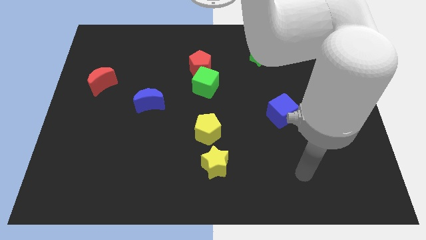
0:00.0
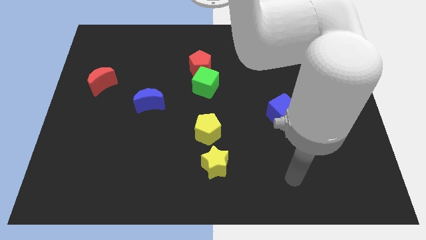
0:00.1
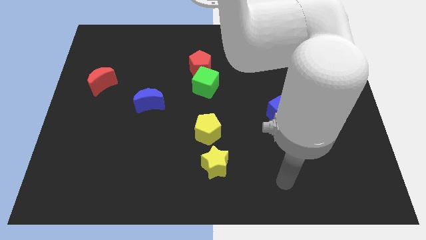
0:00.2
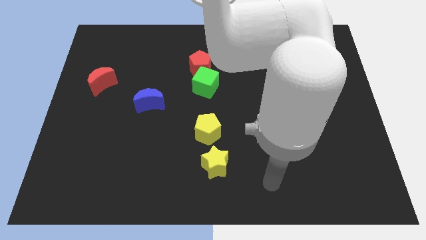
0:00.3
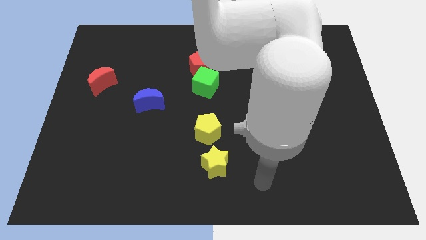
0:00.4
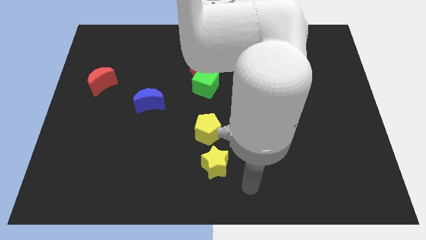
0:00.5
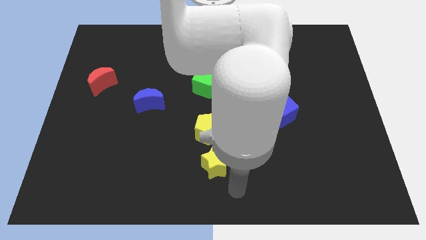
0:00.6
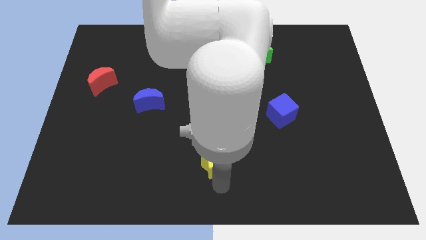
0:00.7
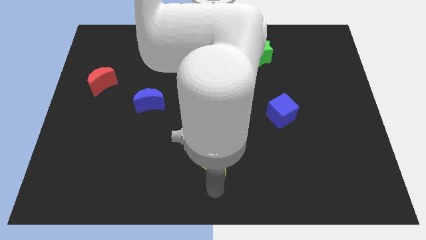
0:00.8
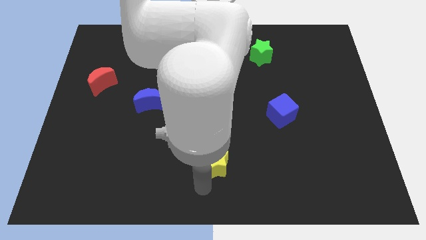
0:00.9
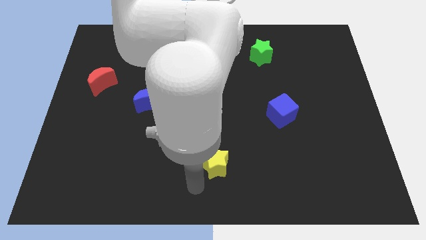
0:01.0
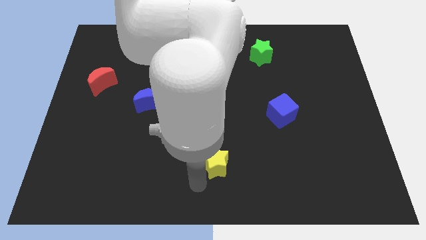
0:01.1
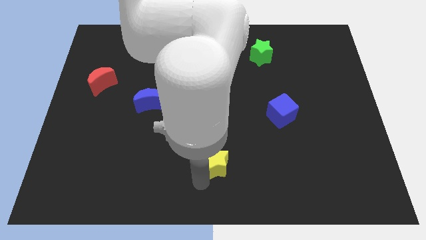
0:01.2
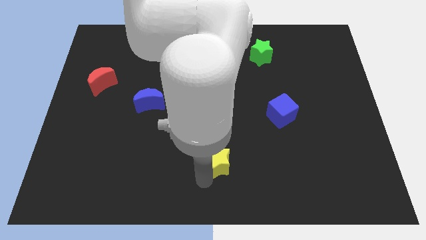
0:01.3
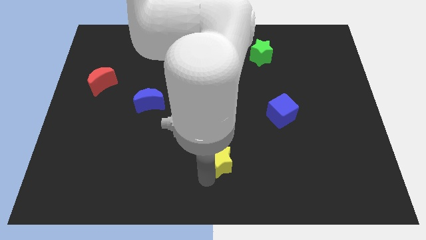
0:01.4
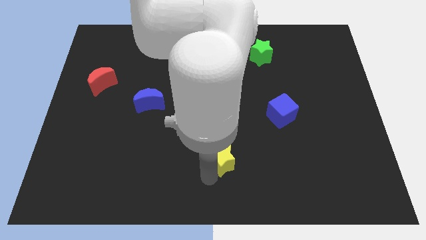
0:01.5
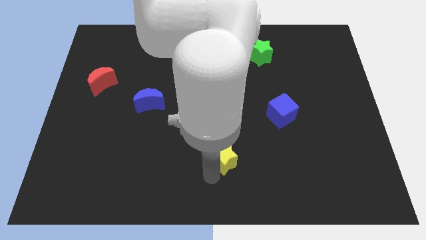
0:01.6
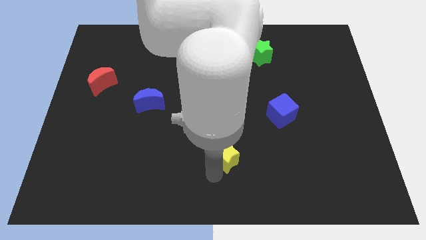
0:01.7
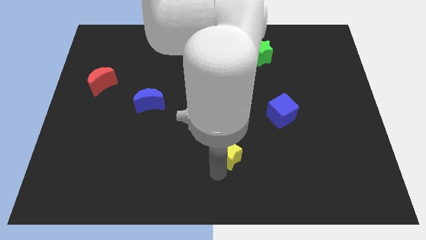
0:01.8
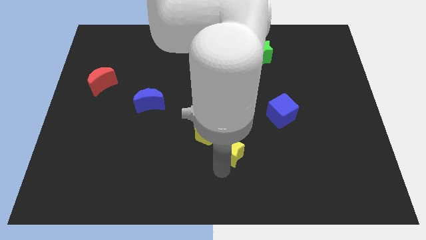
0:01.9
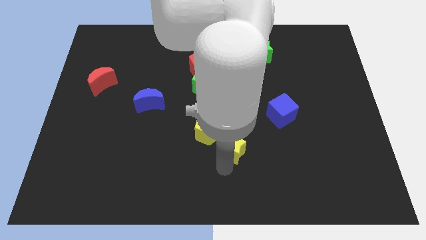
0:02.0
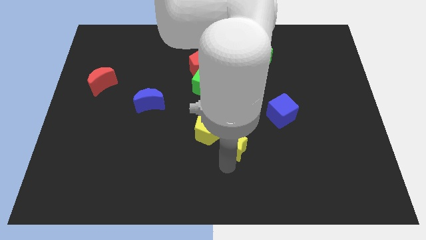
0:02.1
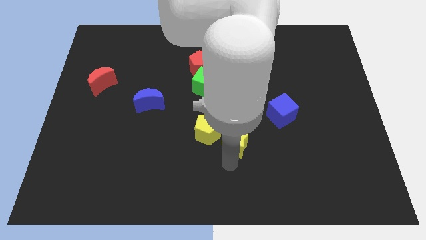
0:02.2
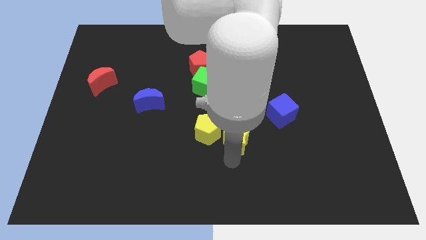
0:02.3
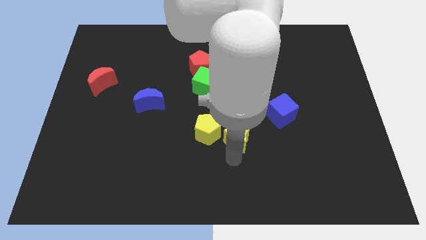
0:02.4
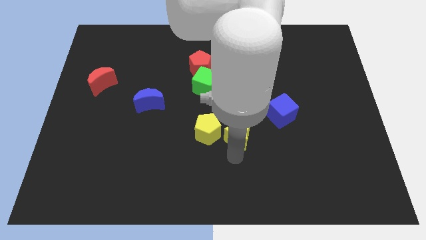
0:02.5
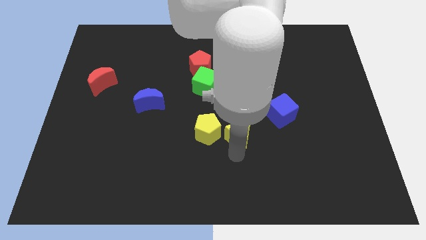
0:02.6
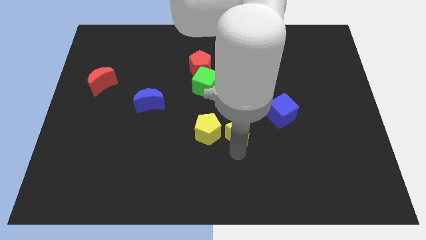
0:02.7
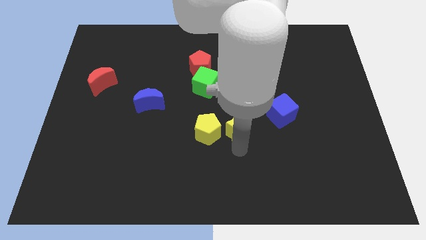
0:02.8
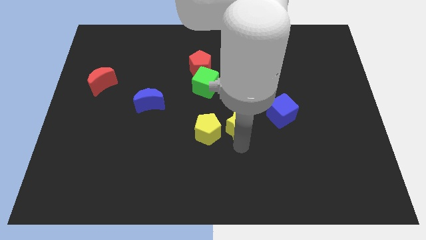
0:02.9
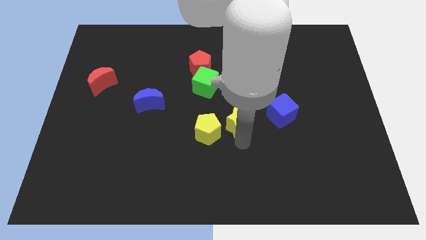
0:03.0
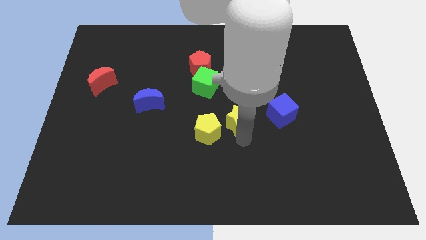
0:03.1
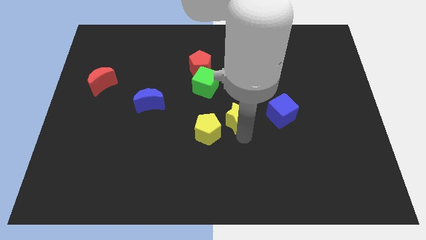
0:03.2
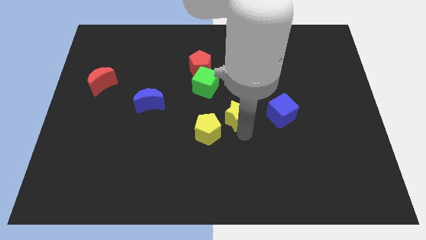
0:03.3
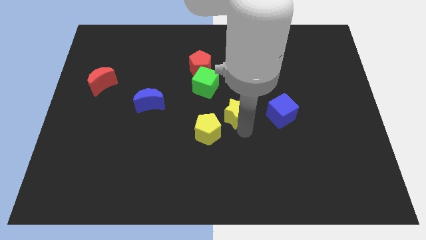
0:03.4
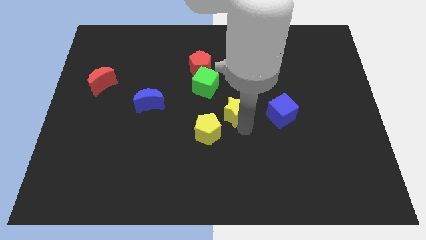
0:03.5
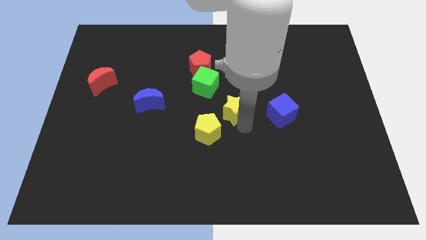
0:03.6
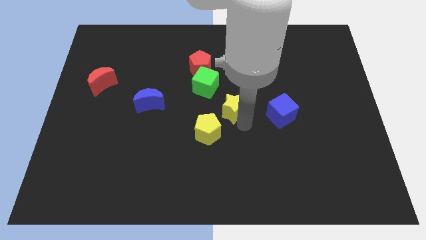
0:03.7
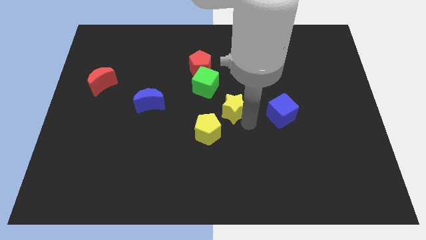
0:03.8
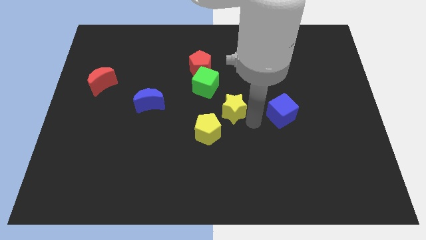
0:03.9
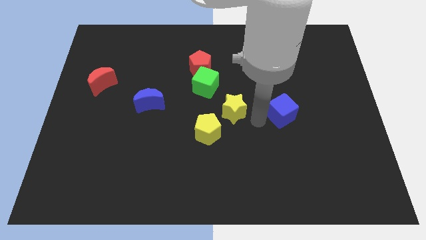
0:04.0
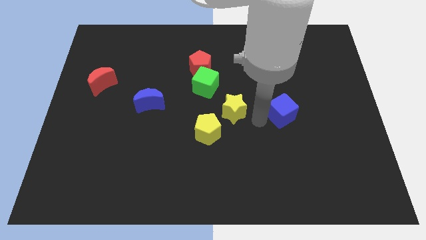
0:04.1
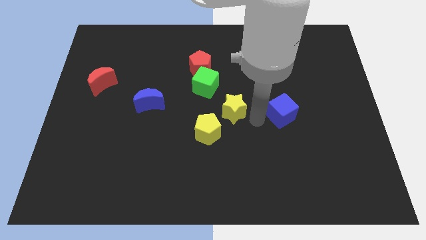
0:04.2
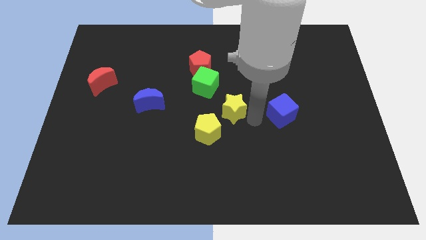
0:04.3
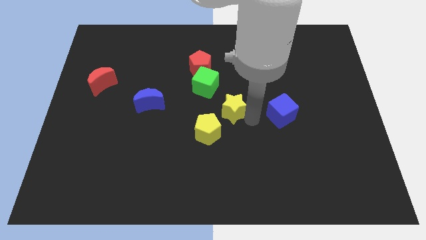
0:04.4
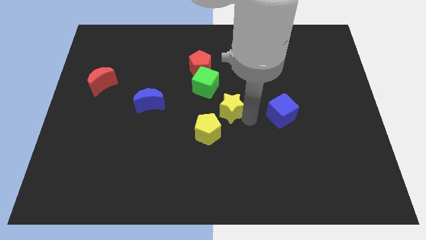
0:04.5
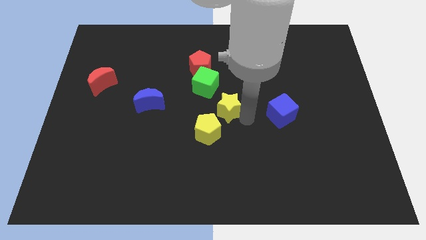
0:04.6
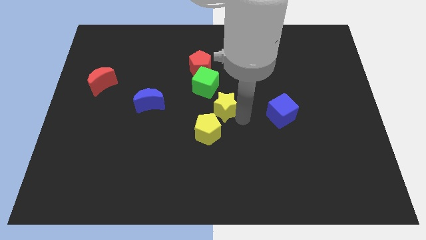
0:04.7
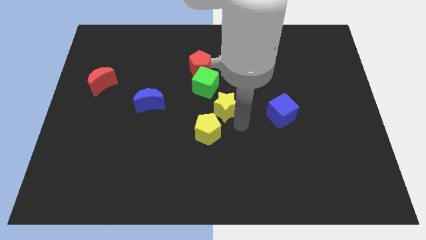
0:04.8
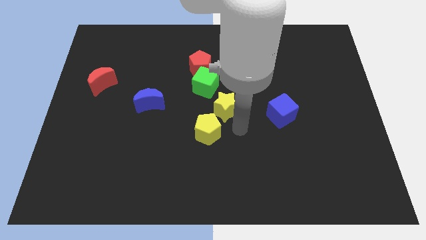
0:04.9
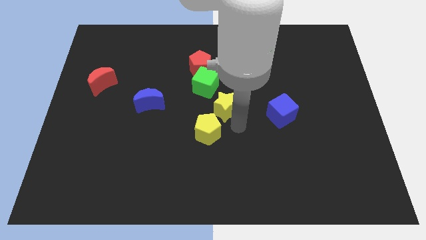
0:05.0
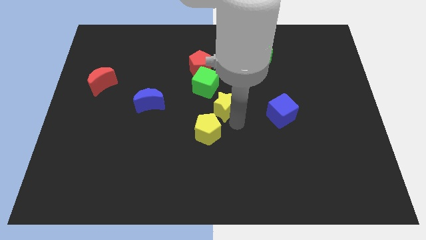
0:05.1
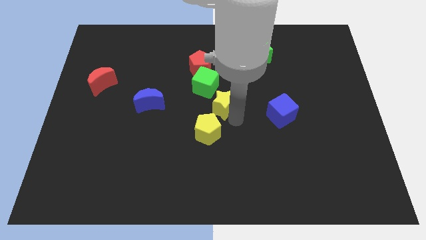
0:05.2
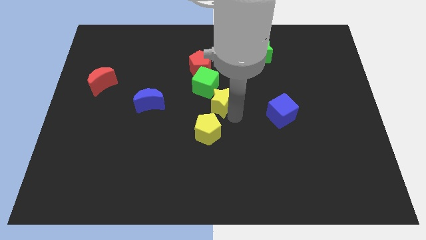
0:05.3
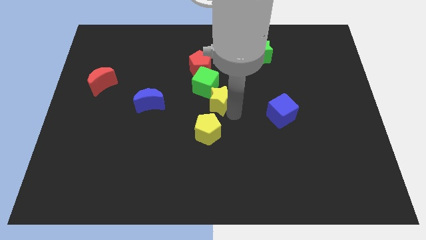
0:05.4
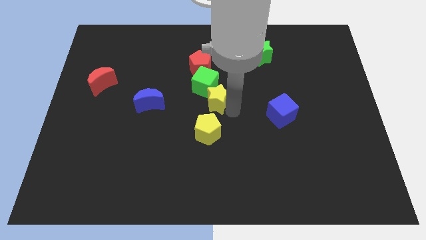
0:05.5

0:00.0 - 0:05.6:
put the yellow star towards the green cube

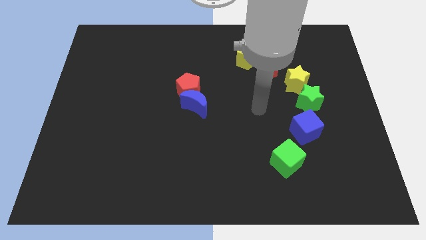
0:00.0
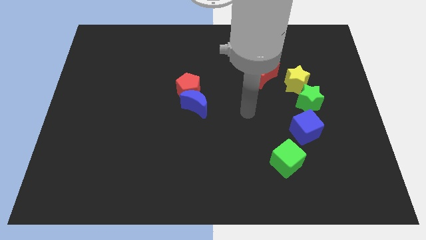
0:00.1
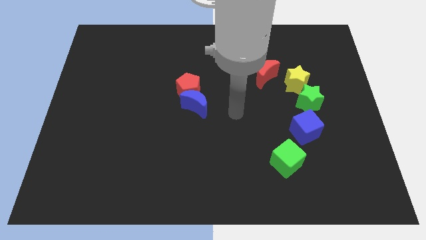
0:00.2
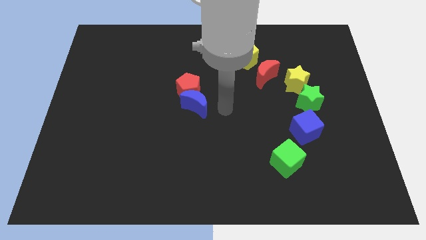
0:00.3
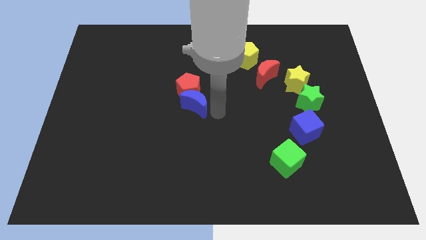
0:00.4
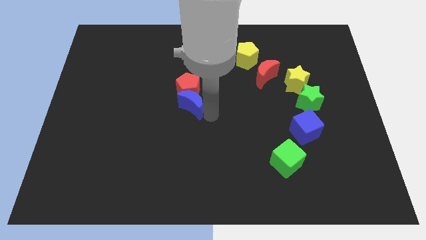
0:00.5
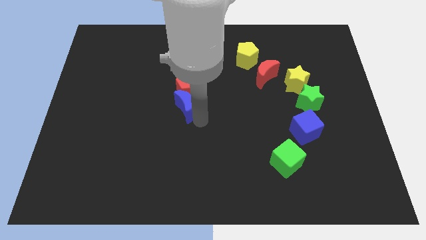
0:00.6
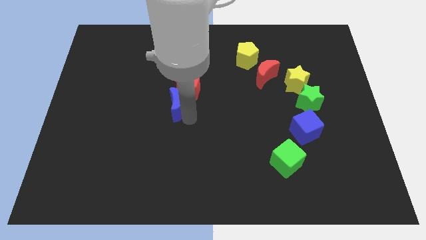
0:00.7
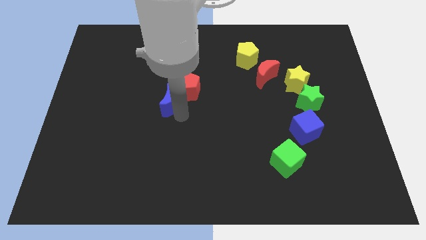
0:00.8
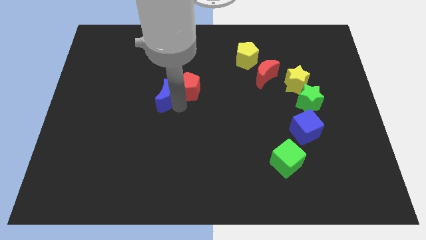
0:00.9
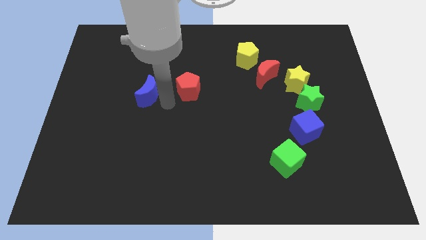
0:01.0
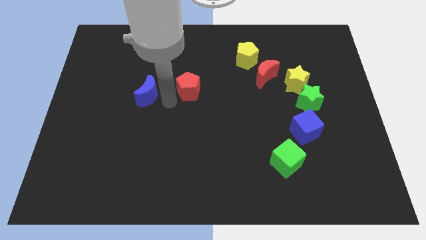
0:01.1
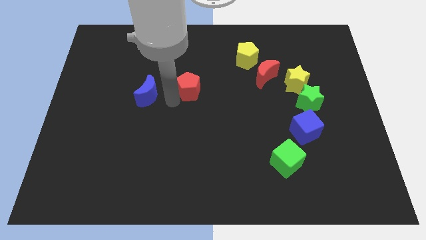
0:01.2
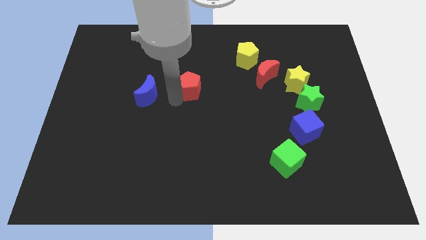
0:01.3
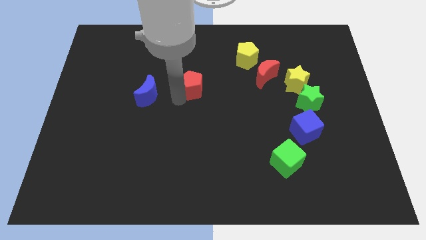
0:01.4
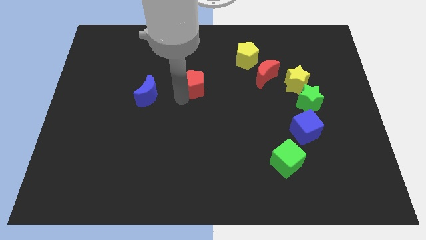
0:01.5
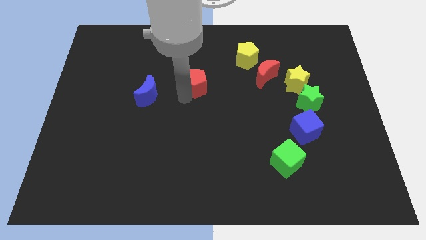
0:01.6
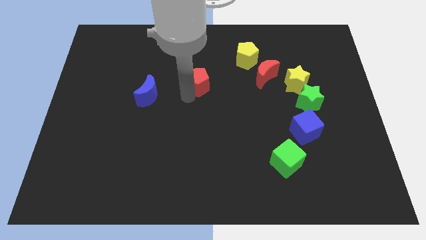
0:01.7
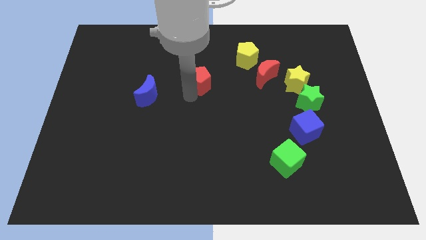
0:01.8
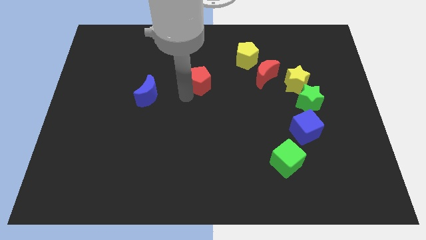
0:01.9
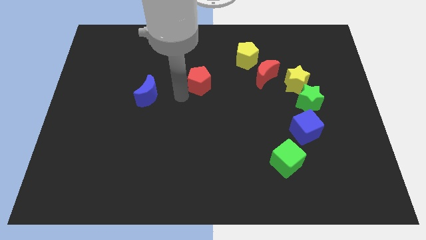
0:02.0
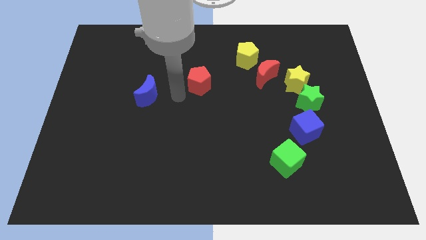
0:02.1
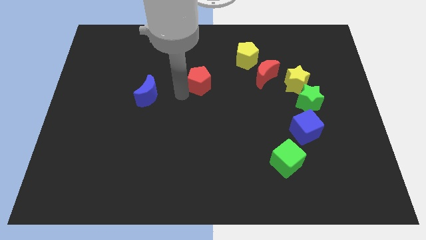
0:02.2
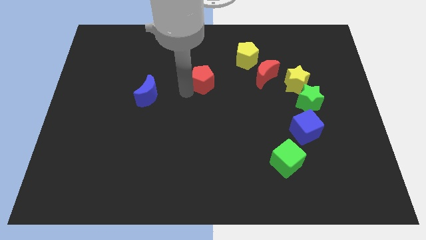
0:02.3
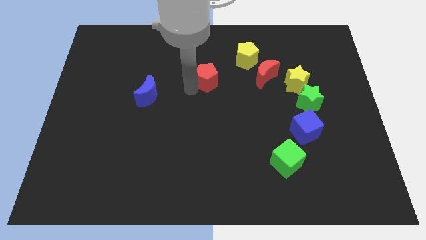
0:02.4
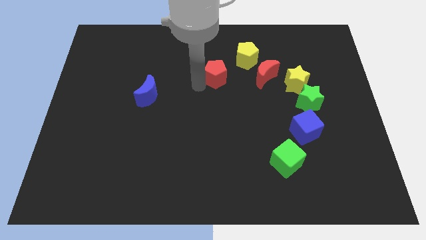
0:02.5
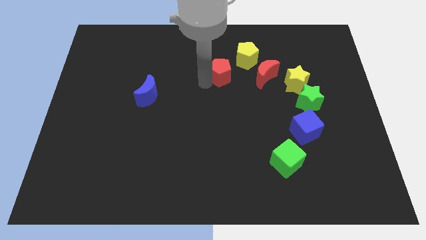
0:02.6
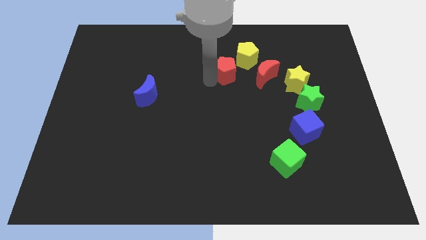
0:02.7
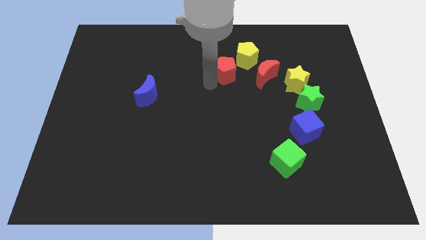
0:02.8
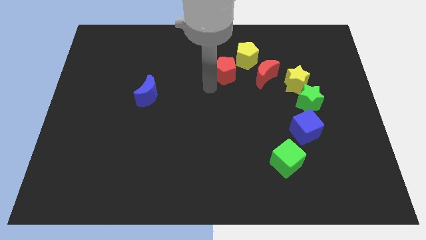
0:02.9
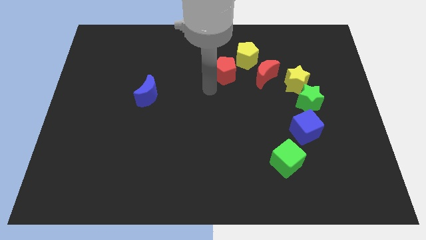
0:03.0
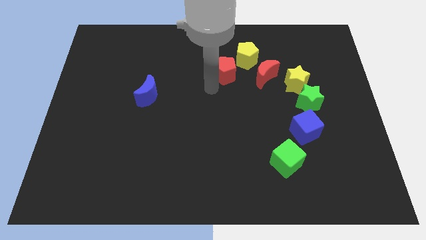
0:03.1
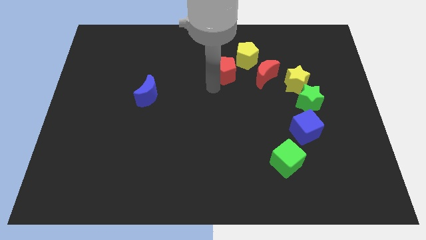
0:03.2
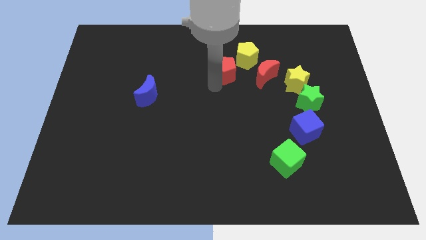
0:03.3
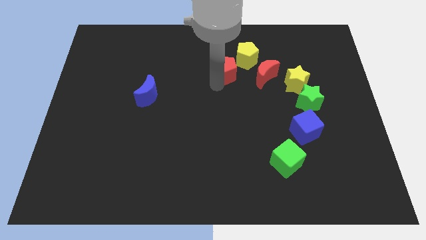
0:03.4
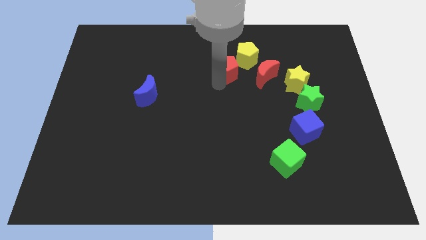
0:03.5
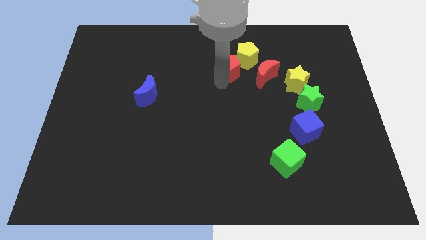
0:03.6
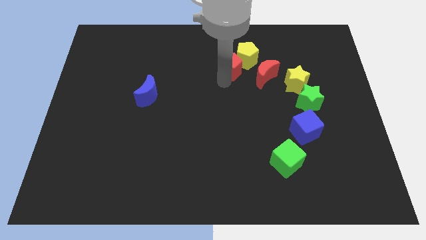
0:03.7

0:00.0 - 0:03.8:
push the red pentagon towards the yellow pentagon
